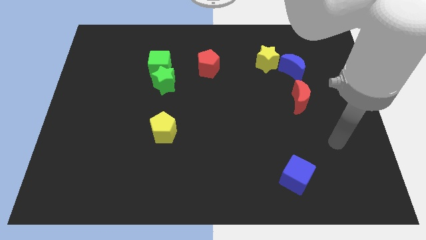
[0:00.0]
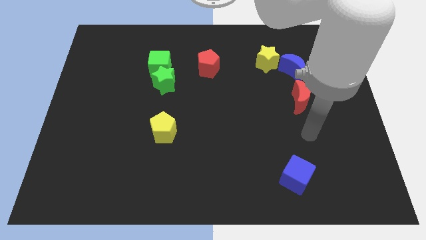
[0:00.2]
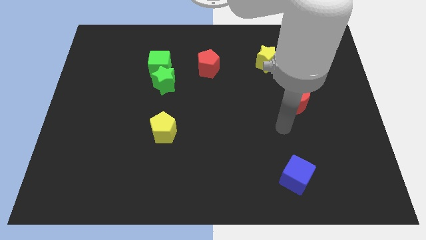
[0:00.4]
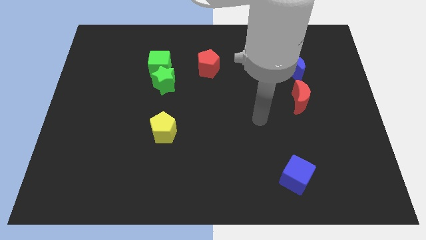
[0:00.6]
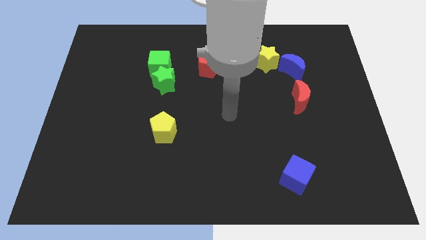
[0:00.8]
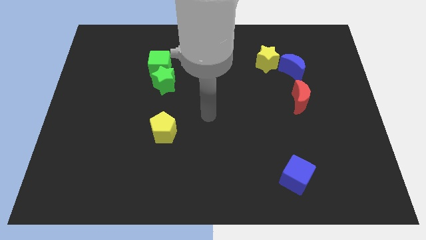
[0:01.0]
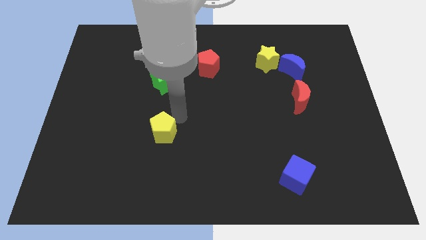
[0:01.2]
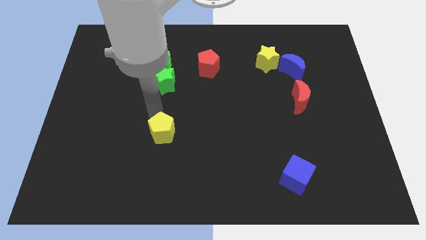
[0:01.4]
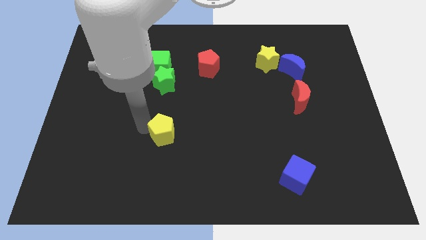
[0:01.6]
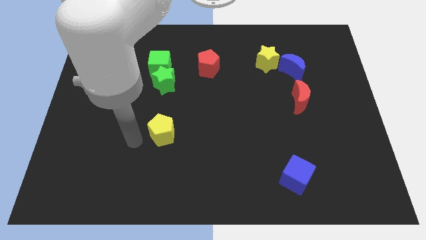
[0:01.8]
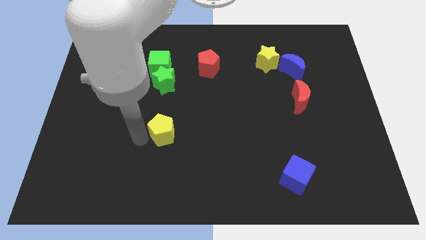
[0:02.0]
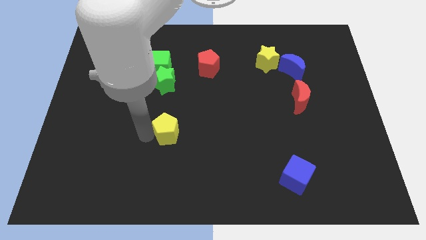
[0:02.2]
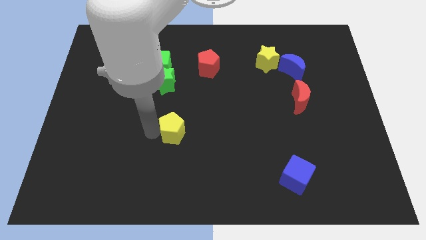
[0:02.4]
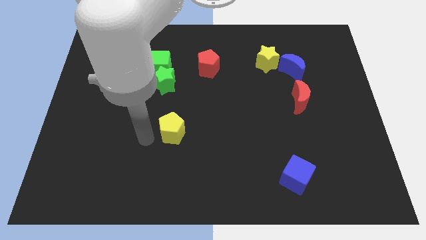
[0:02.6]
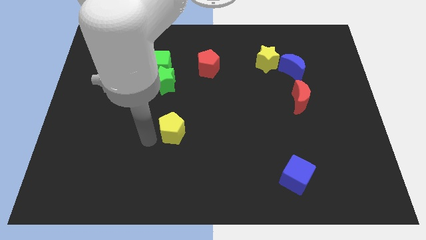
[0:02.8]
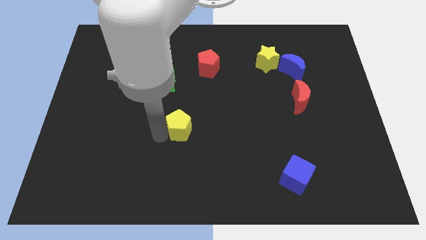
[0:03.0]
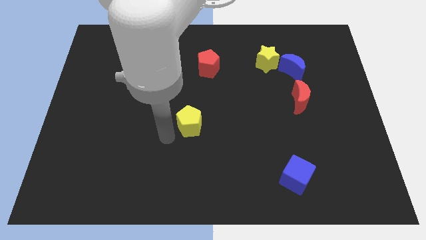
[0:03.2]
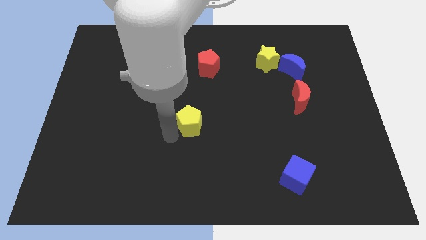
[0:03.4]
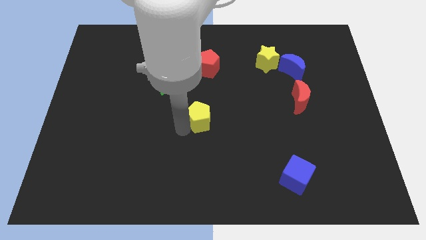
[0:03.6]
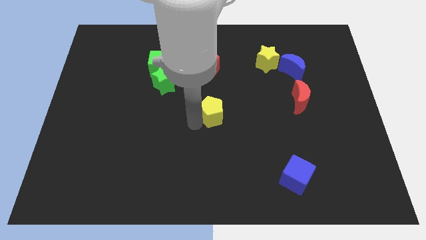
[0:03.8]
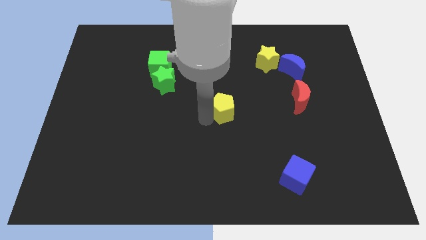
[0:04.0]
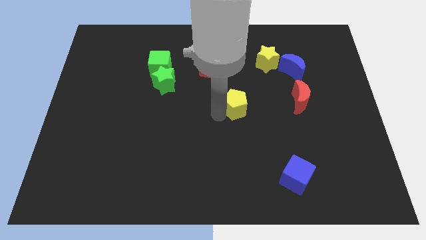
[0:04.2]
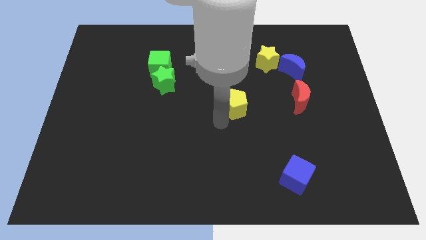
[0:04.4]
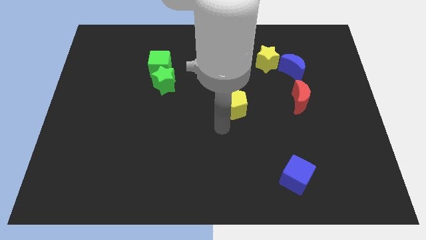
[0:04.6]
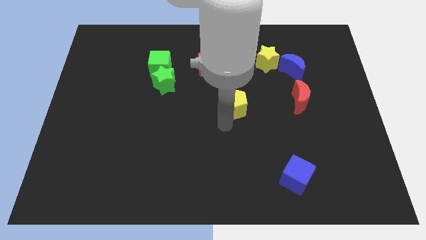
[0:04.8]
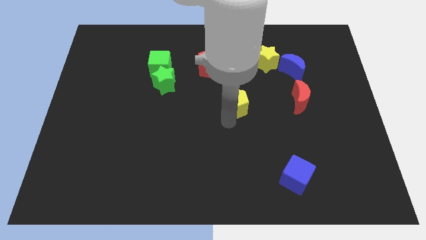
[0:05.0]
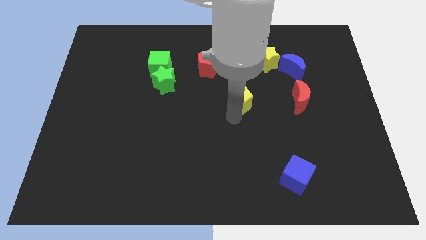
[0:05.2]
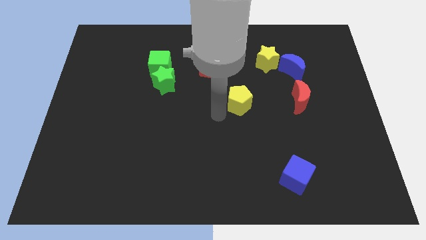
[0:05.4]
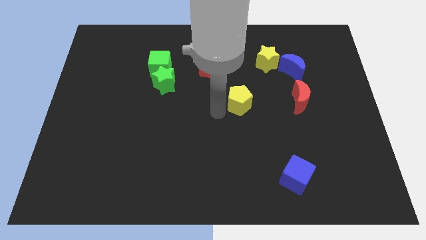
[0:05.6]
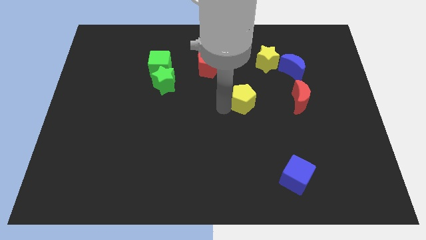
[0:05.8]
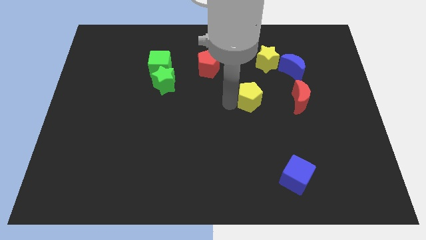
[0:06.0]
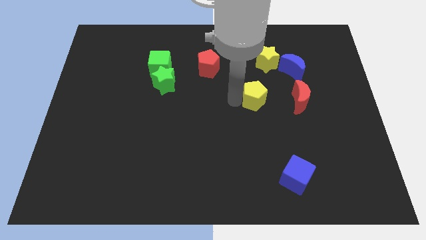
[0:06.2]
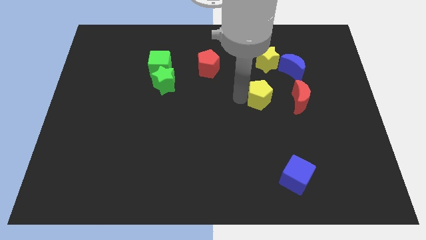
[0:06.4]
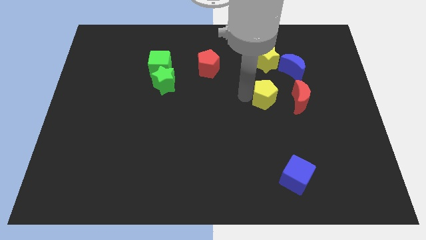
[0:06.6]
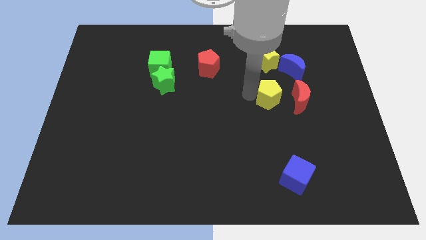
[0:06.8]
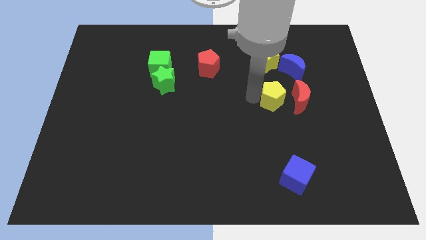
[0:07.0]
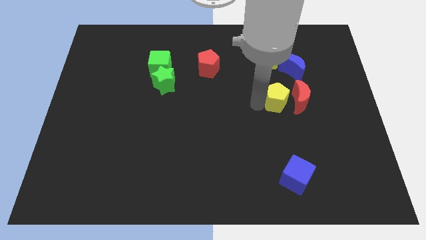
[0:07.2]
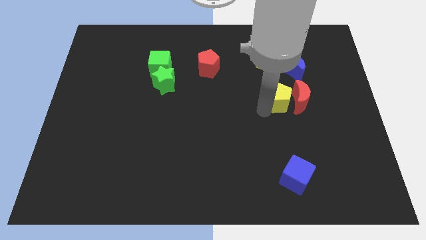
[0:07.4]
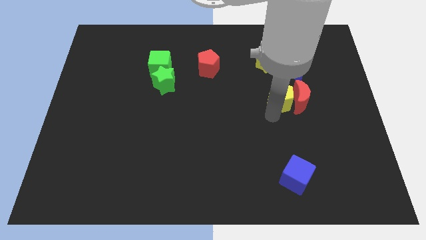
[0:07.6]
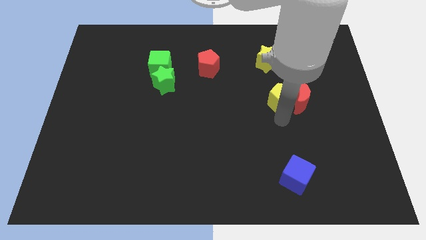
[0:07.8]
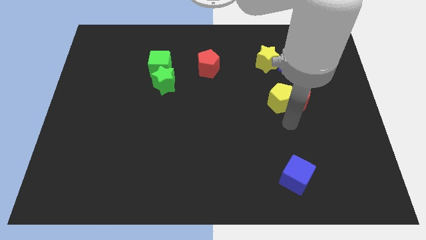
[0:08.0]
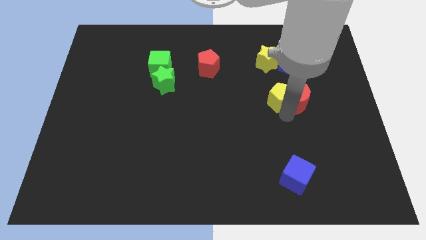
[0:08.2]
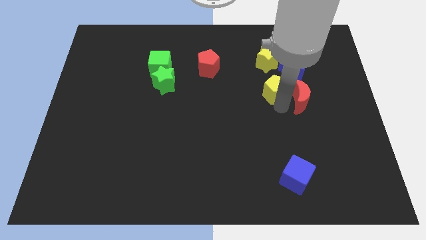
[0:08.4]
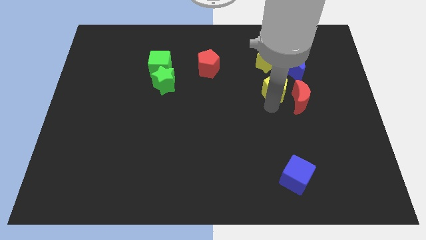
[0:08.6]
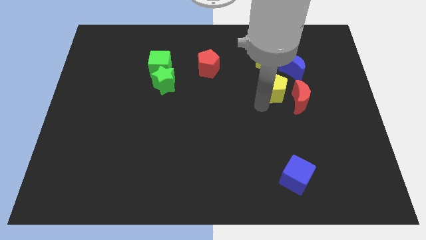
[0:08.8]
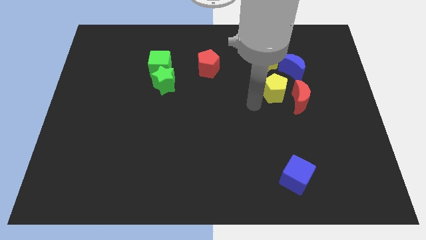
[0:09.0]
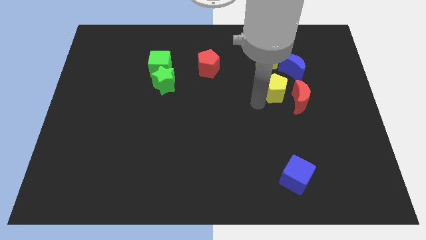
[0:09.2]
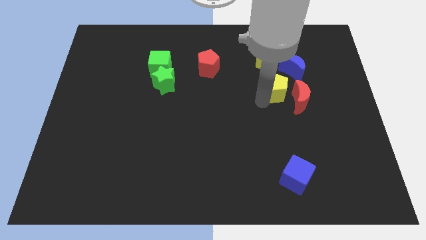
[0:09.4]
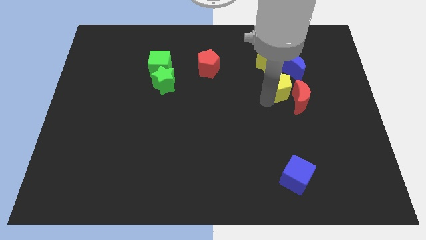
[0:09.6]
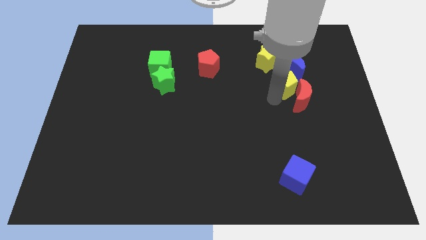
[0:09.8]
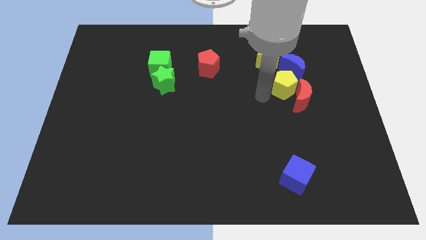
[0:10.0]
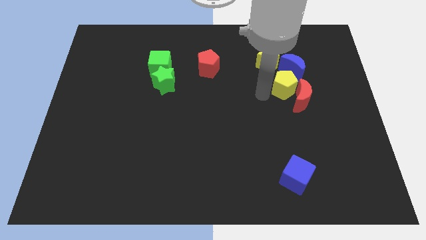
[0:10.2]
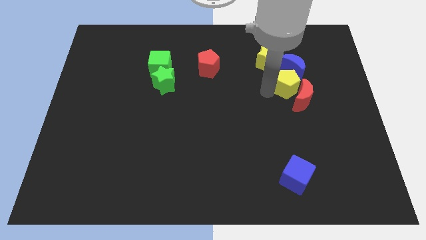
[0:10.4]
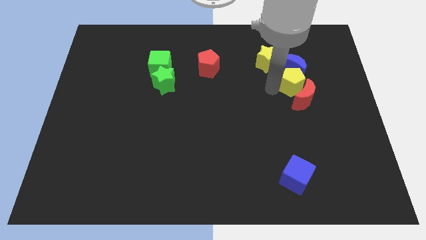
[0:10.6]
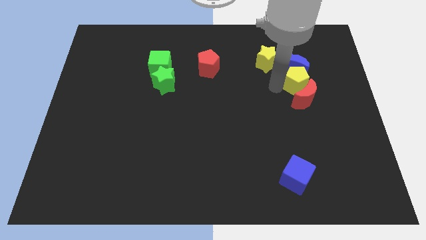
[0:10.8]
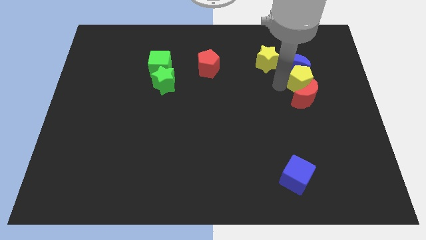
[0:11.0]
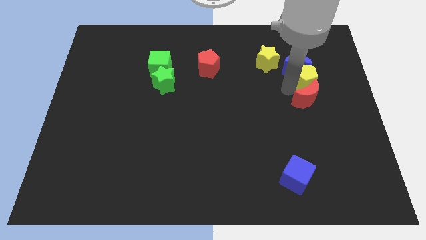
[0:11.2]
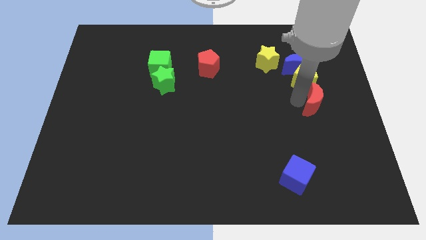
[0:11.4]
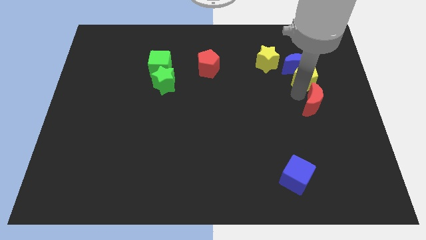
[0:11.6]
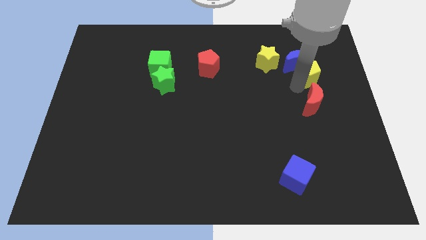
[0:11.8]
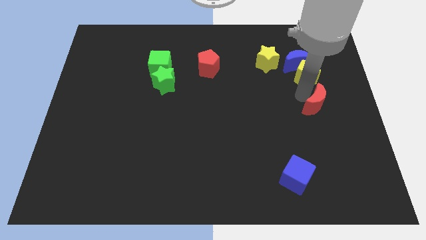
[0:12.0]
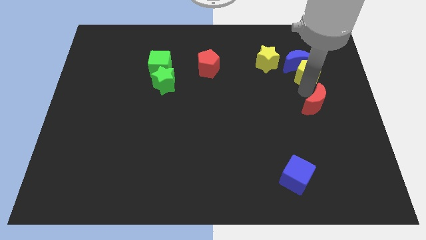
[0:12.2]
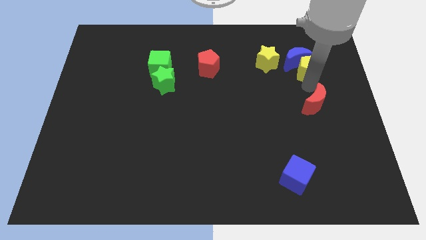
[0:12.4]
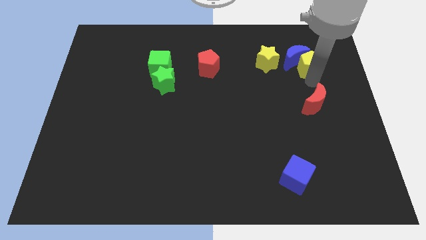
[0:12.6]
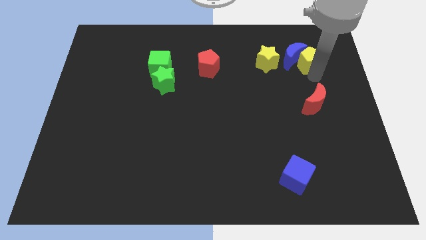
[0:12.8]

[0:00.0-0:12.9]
slide the yellow pentagon to the top right of the blue moon

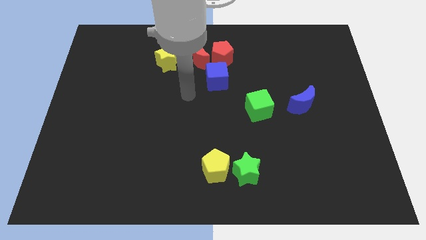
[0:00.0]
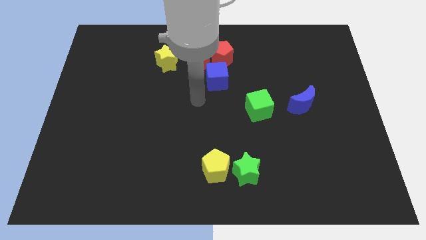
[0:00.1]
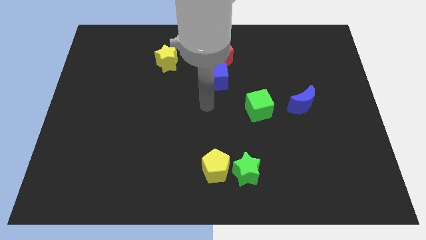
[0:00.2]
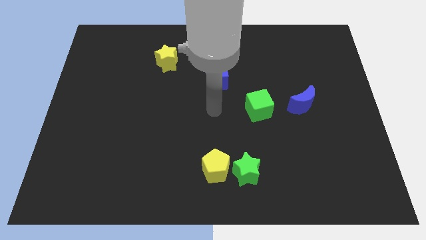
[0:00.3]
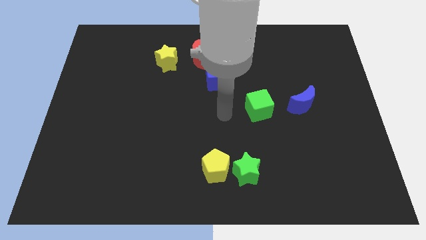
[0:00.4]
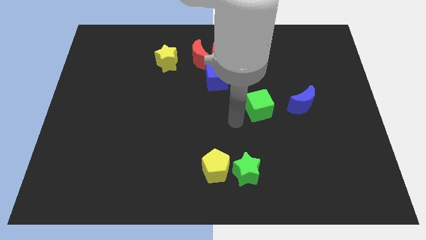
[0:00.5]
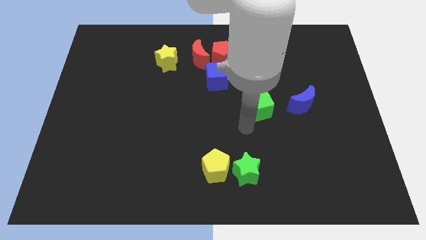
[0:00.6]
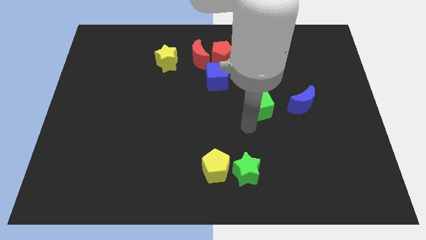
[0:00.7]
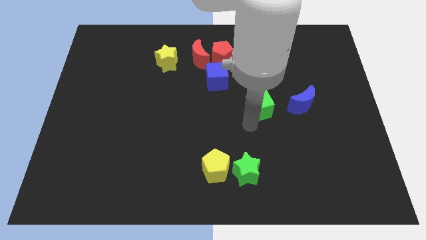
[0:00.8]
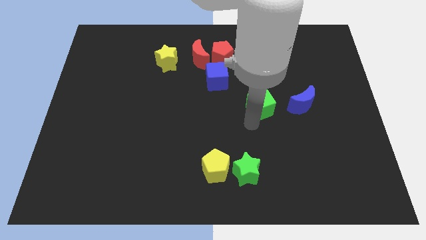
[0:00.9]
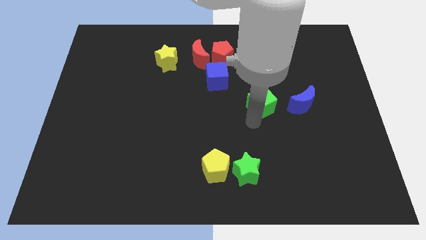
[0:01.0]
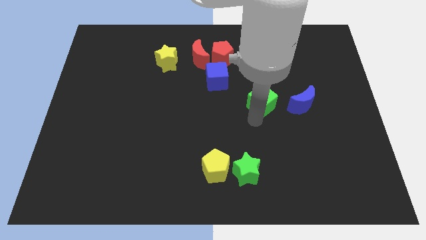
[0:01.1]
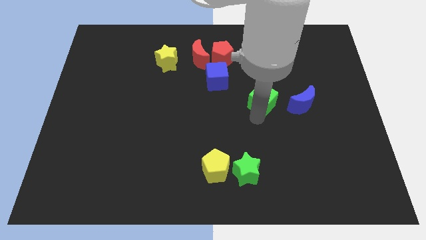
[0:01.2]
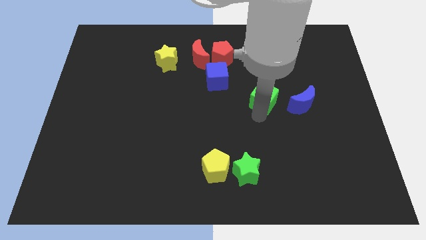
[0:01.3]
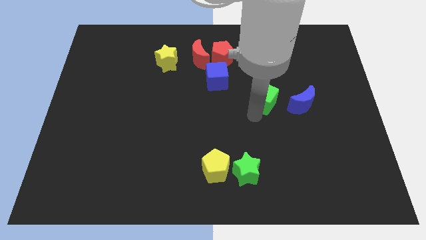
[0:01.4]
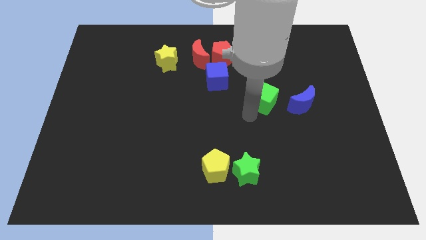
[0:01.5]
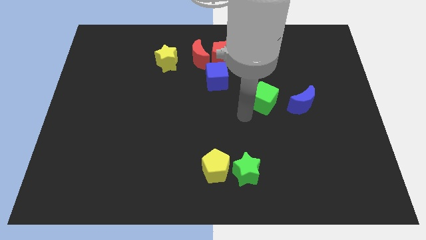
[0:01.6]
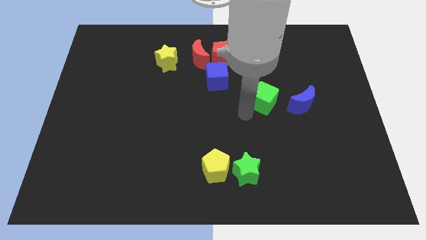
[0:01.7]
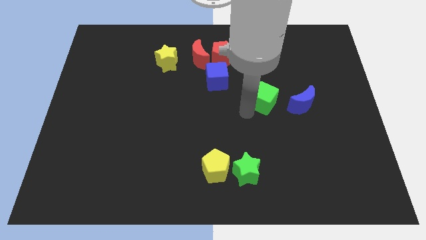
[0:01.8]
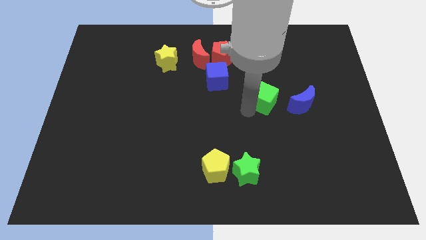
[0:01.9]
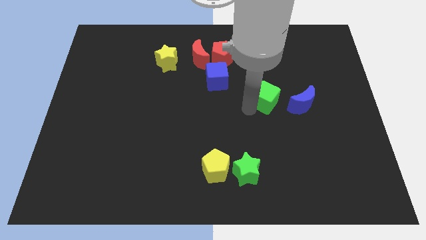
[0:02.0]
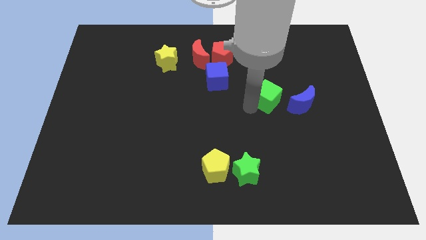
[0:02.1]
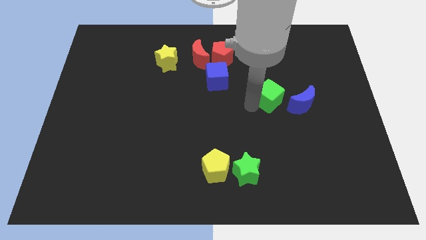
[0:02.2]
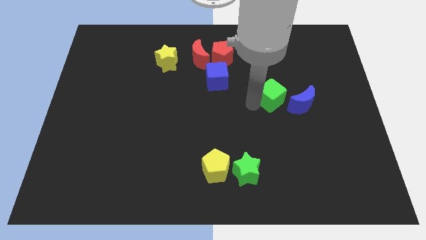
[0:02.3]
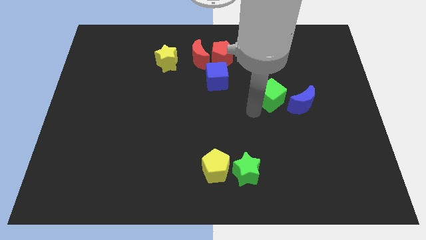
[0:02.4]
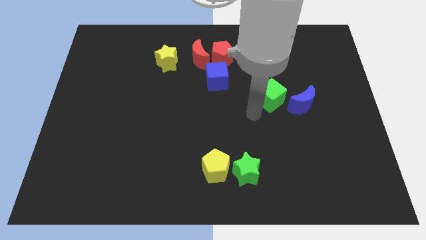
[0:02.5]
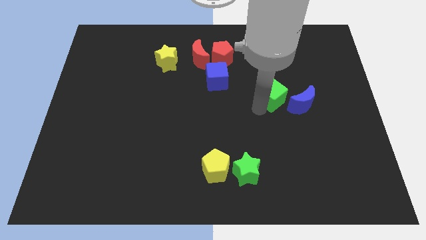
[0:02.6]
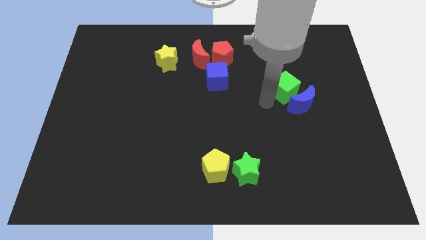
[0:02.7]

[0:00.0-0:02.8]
slide the green cube to the top of the blue moon
